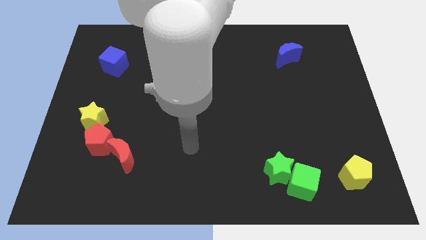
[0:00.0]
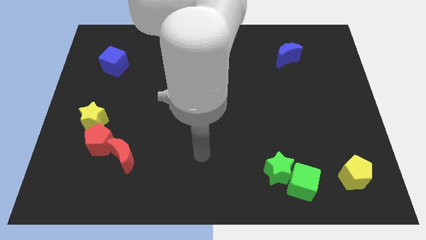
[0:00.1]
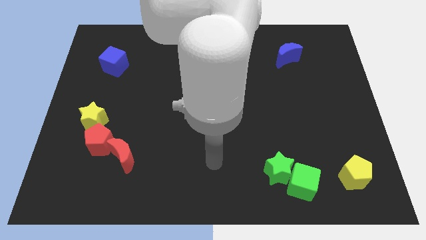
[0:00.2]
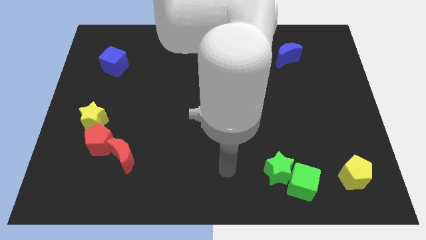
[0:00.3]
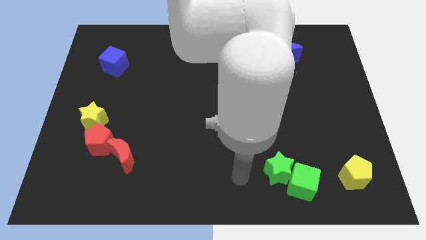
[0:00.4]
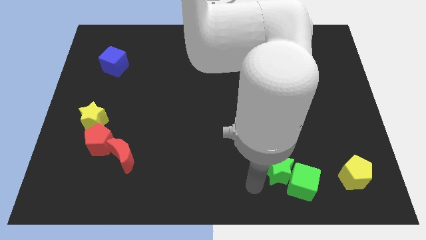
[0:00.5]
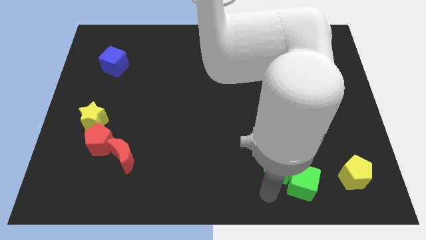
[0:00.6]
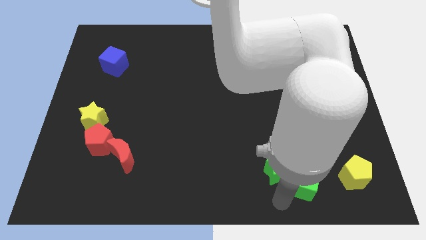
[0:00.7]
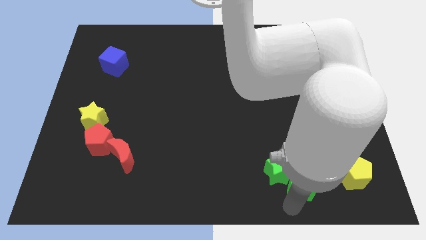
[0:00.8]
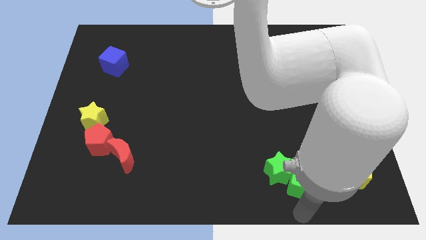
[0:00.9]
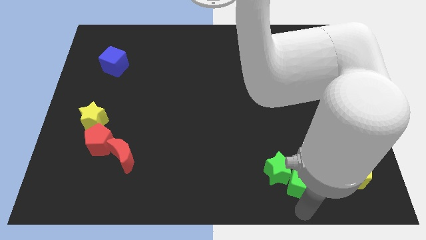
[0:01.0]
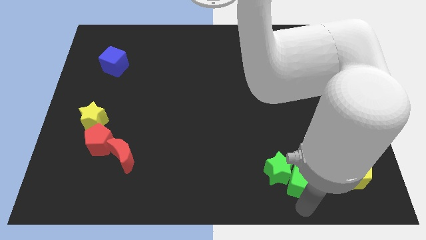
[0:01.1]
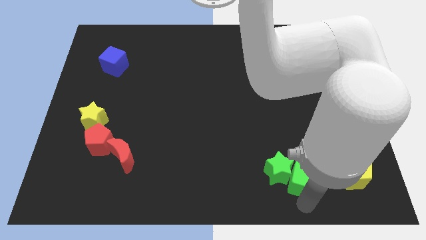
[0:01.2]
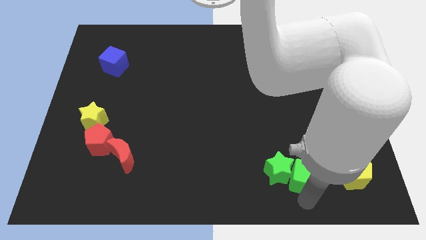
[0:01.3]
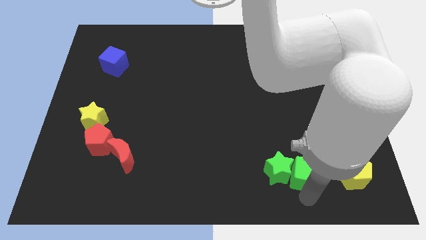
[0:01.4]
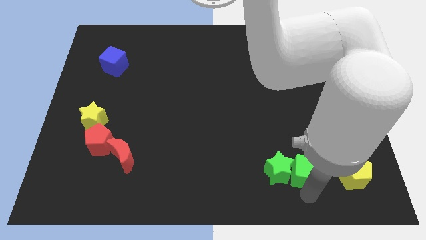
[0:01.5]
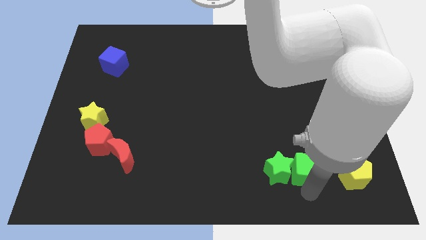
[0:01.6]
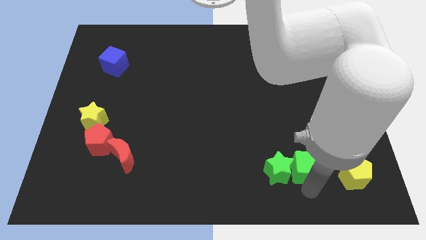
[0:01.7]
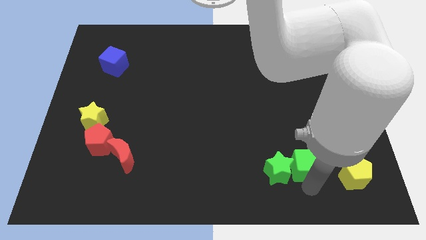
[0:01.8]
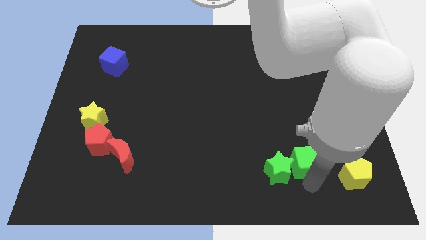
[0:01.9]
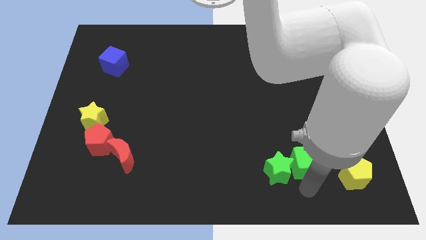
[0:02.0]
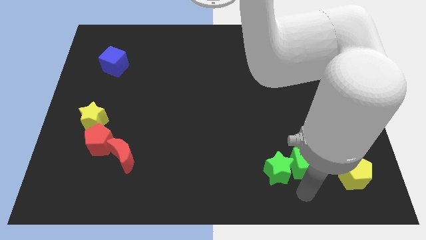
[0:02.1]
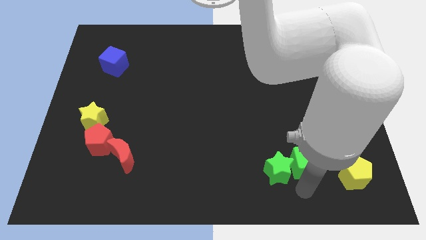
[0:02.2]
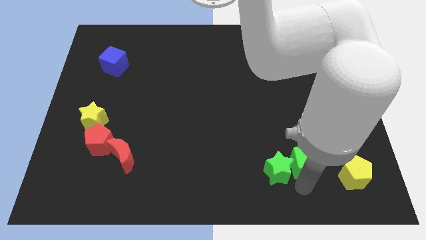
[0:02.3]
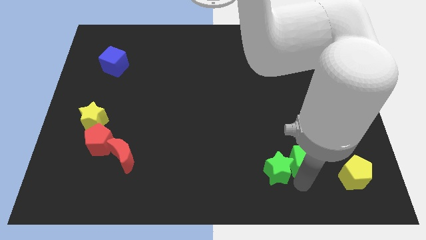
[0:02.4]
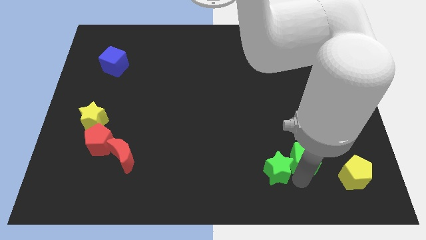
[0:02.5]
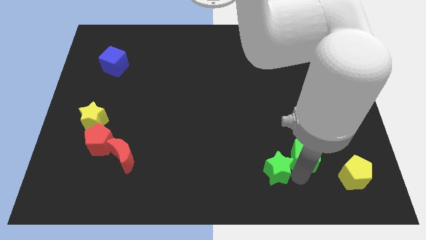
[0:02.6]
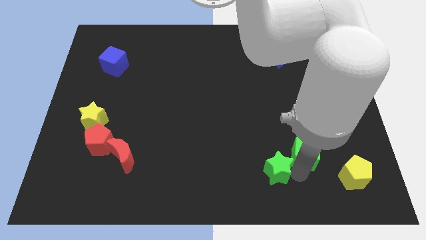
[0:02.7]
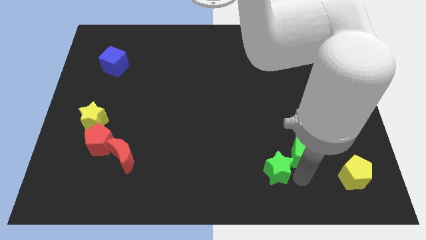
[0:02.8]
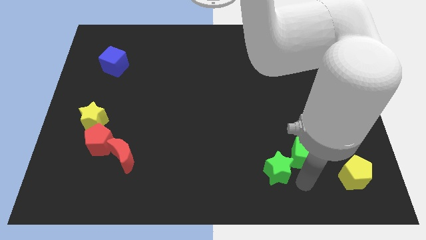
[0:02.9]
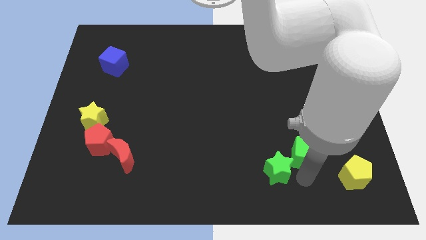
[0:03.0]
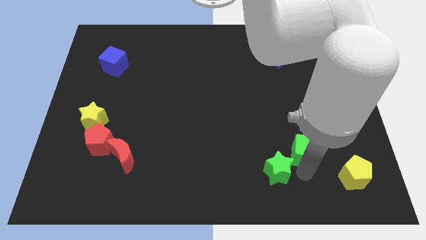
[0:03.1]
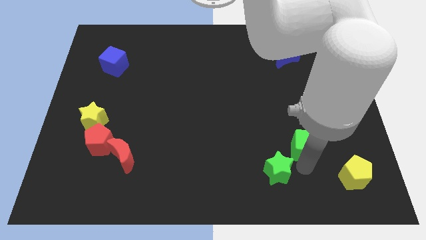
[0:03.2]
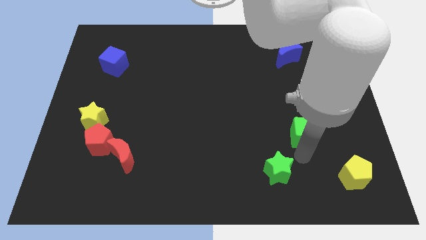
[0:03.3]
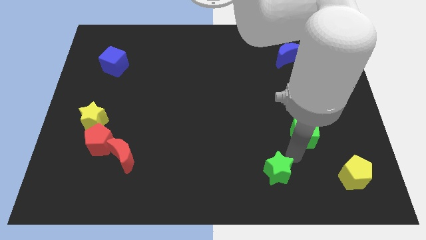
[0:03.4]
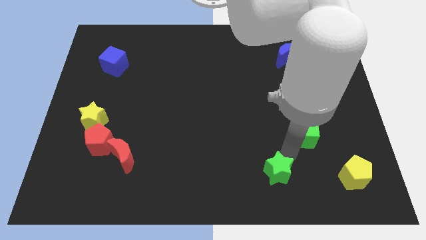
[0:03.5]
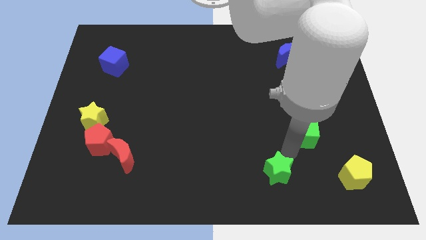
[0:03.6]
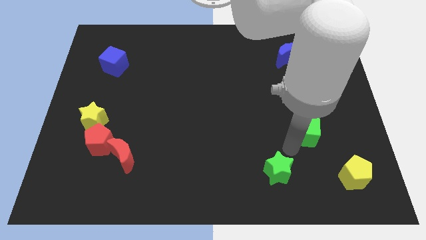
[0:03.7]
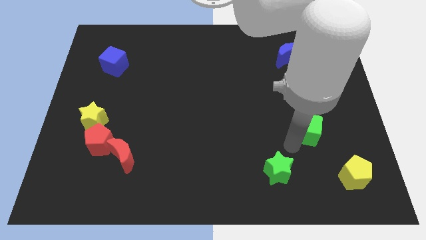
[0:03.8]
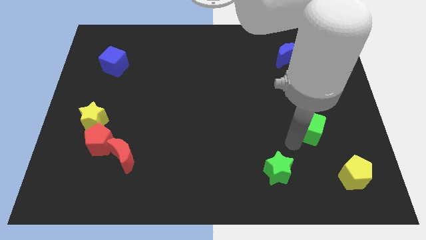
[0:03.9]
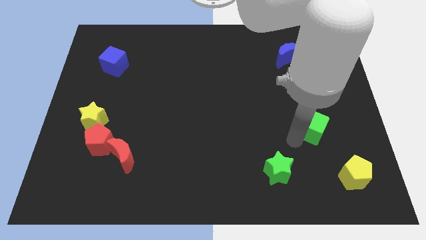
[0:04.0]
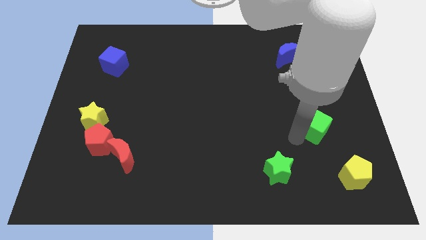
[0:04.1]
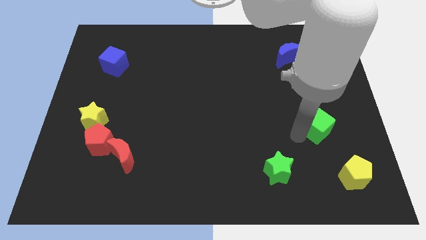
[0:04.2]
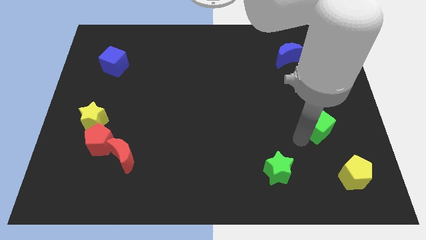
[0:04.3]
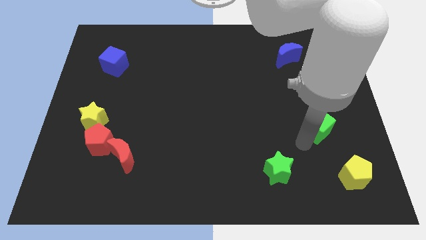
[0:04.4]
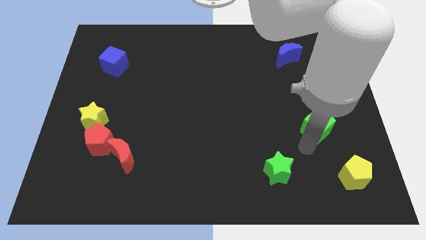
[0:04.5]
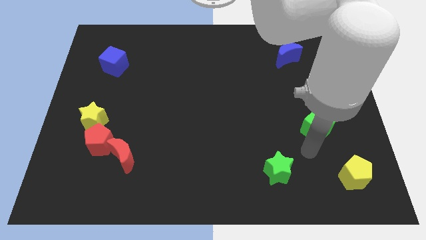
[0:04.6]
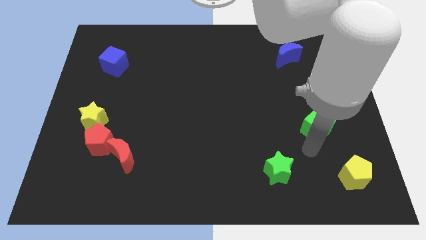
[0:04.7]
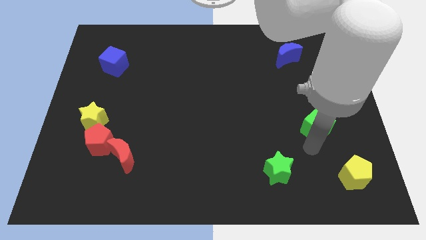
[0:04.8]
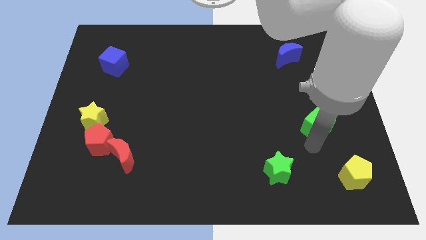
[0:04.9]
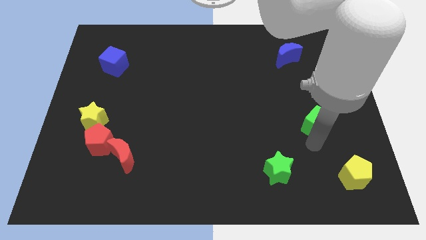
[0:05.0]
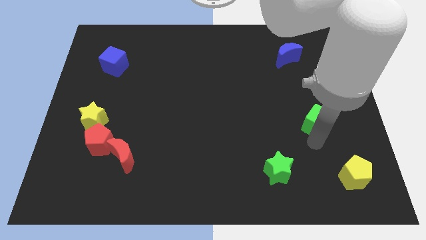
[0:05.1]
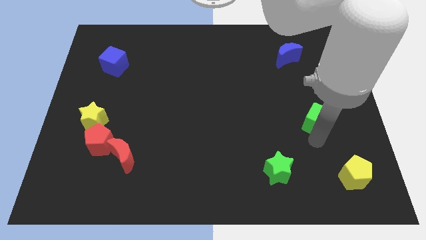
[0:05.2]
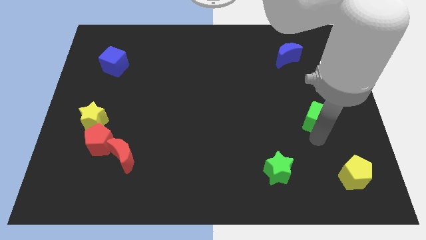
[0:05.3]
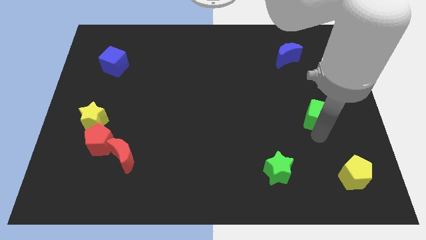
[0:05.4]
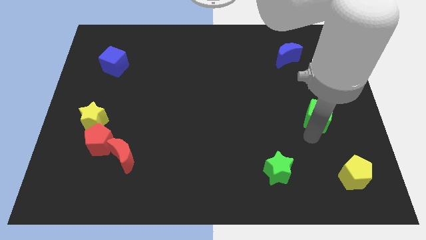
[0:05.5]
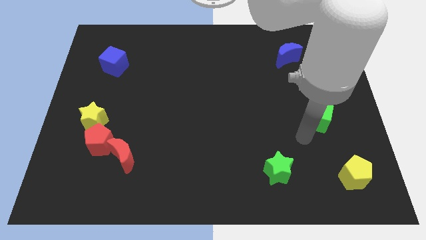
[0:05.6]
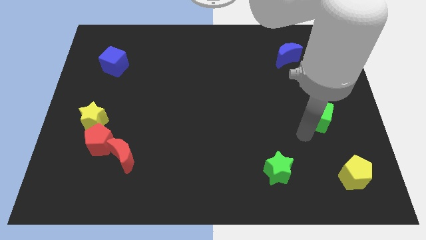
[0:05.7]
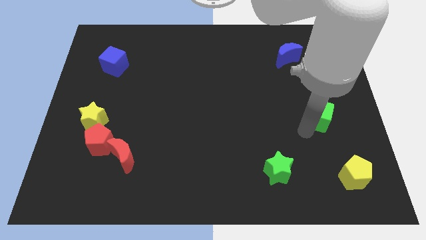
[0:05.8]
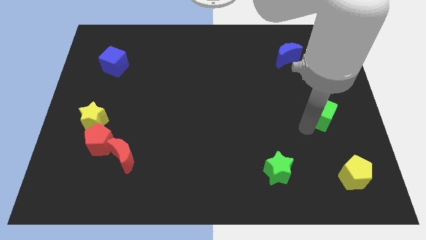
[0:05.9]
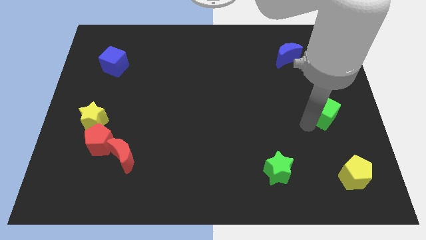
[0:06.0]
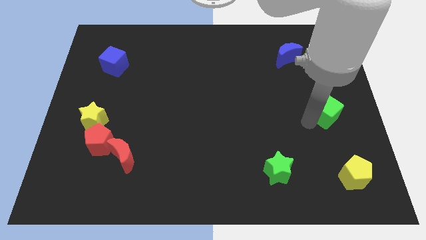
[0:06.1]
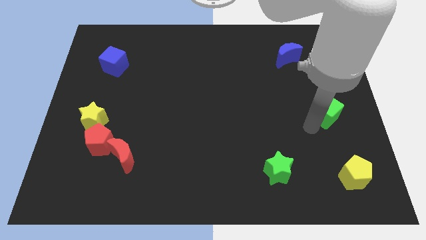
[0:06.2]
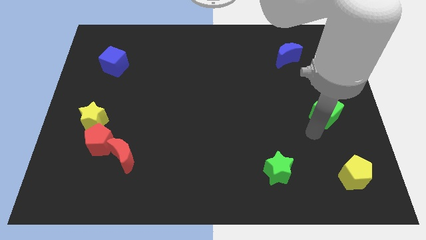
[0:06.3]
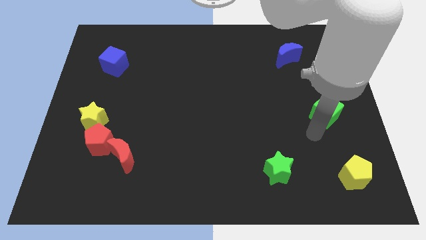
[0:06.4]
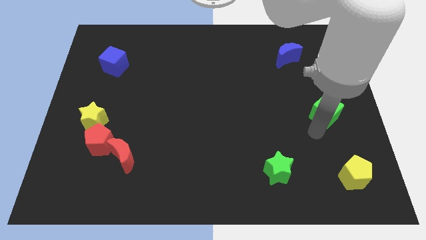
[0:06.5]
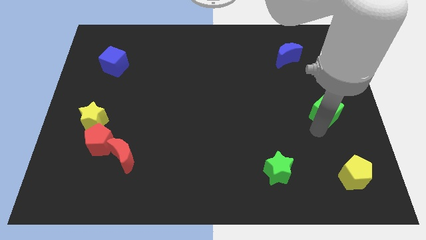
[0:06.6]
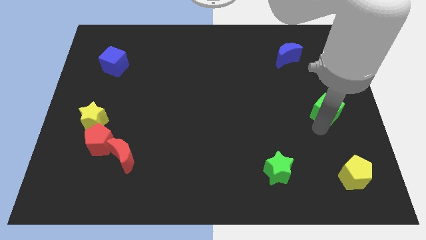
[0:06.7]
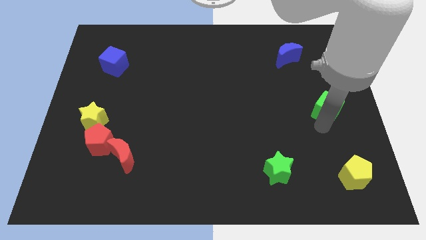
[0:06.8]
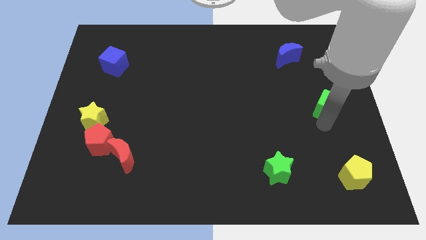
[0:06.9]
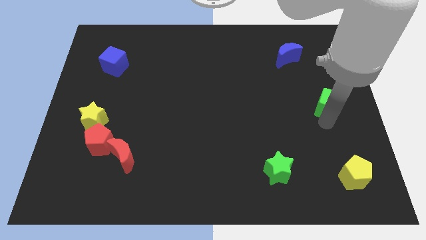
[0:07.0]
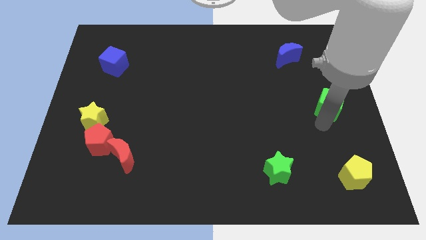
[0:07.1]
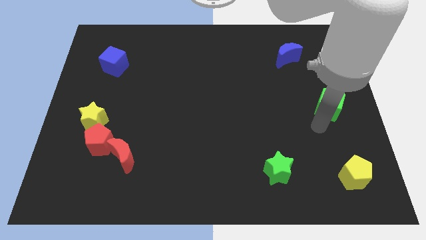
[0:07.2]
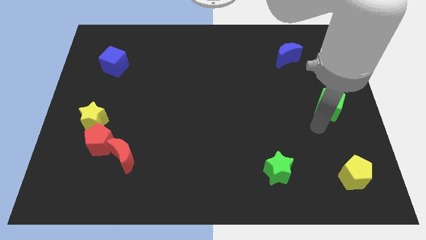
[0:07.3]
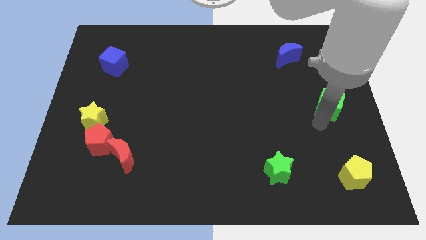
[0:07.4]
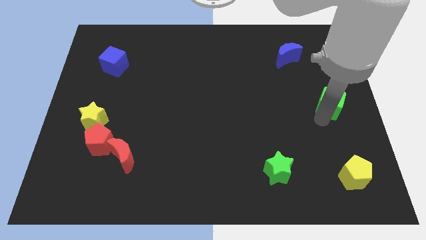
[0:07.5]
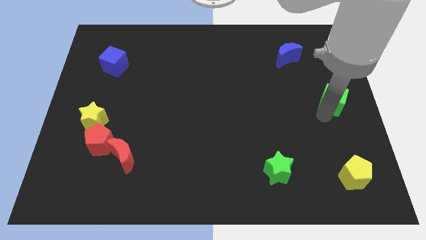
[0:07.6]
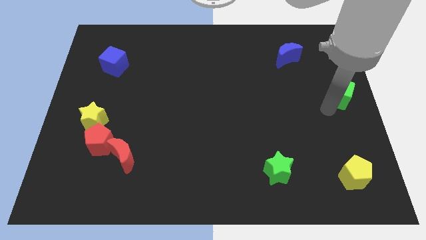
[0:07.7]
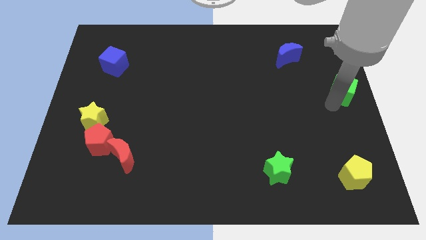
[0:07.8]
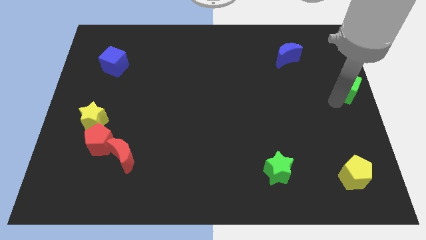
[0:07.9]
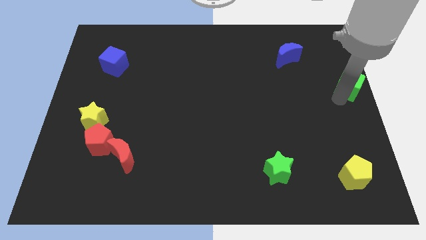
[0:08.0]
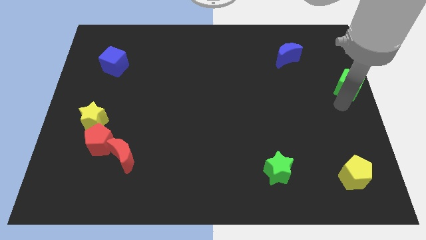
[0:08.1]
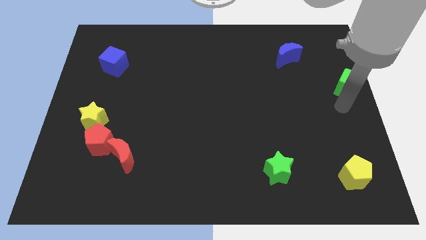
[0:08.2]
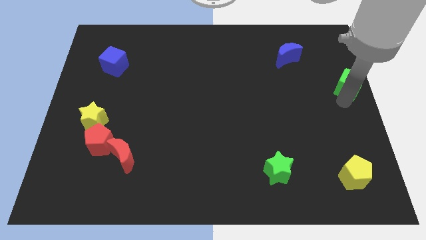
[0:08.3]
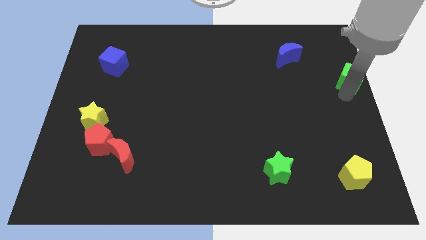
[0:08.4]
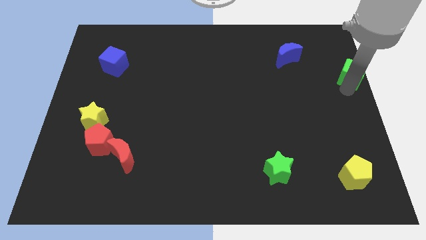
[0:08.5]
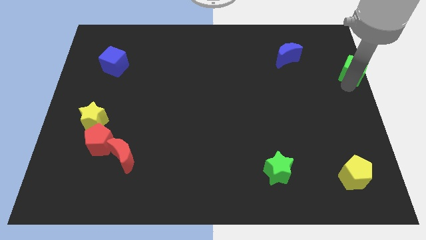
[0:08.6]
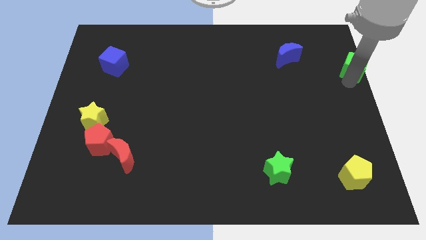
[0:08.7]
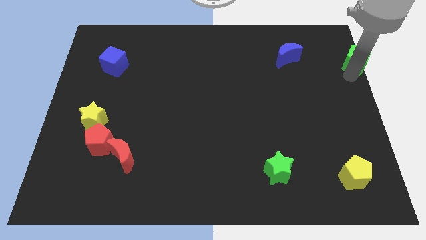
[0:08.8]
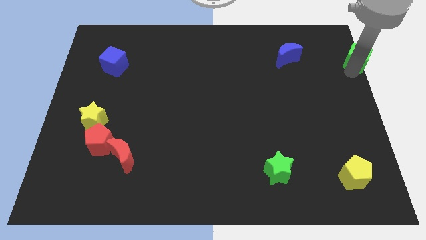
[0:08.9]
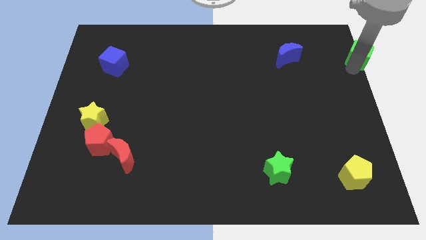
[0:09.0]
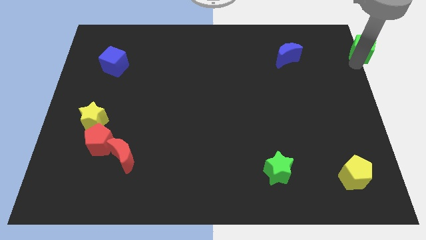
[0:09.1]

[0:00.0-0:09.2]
push the green cube to the upper right corner
